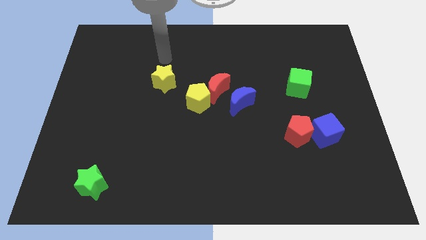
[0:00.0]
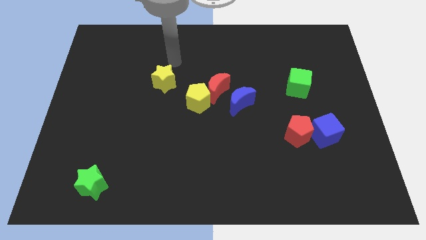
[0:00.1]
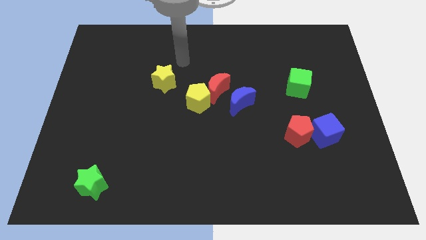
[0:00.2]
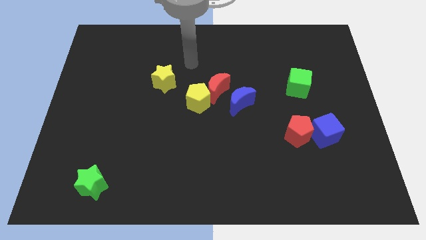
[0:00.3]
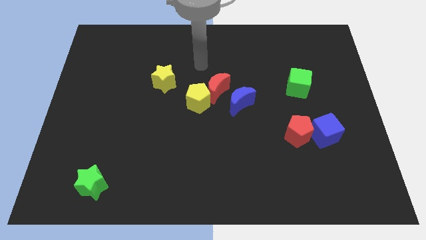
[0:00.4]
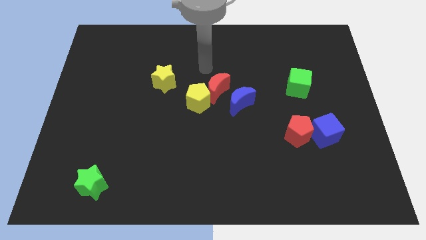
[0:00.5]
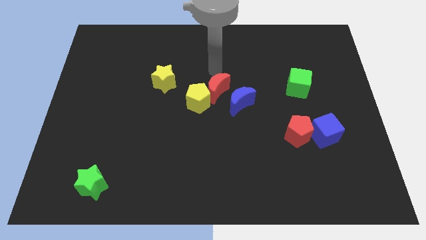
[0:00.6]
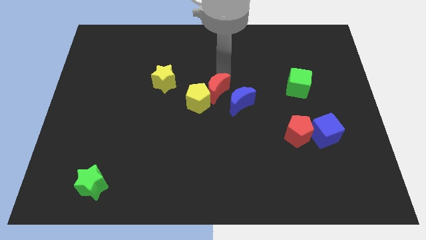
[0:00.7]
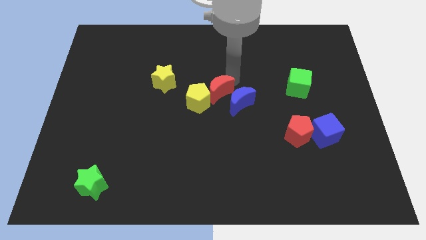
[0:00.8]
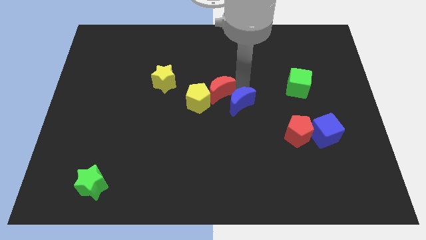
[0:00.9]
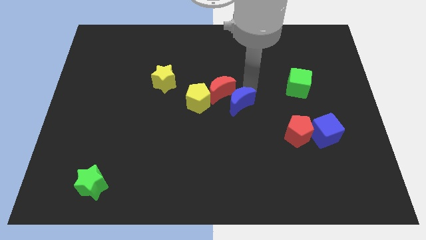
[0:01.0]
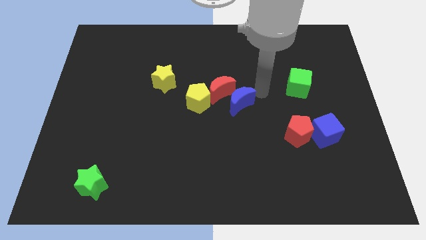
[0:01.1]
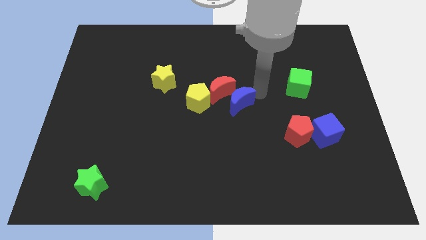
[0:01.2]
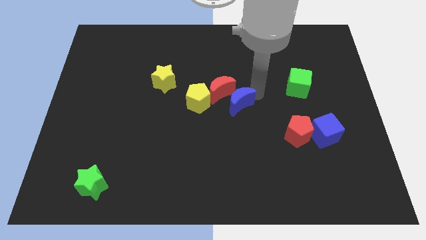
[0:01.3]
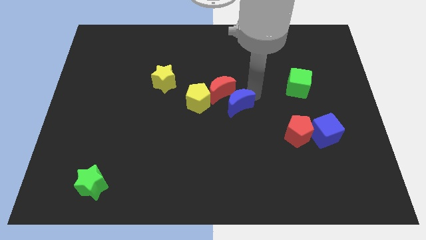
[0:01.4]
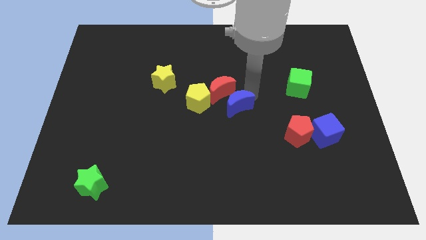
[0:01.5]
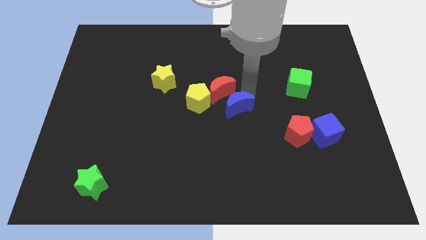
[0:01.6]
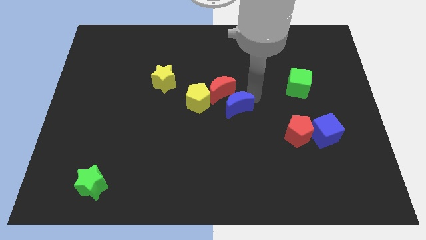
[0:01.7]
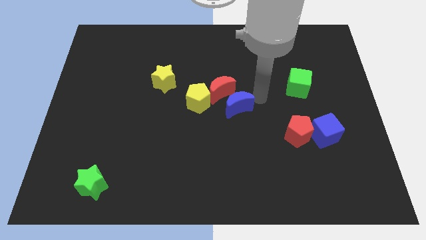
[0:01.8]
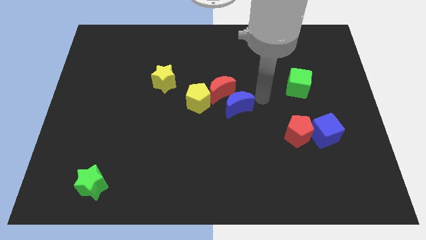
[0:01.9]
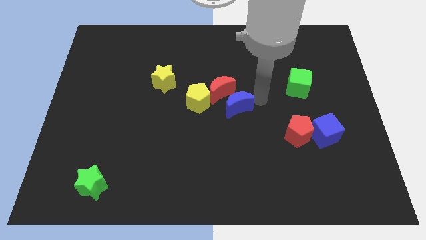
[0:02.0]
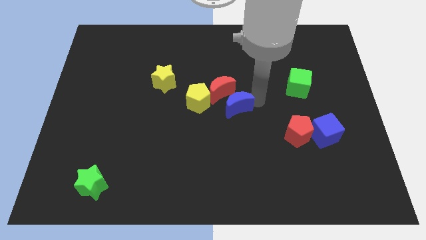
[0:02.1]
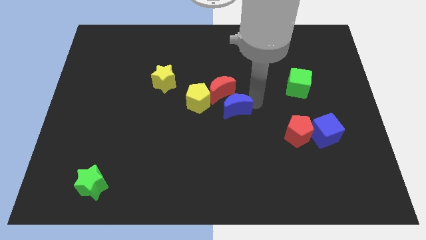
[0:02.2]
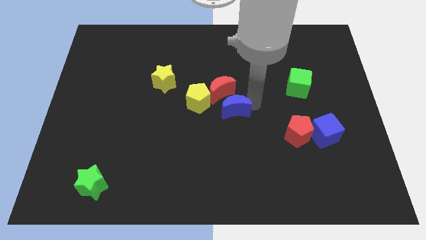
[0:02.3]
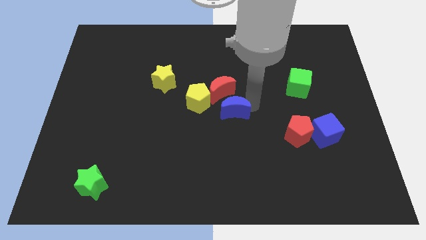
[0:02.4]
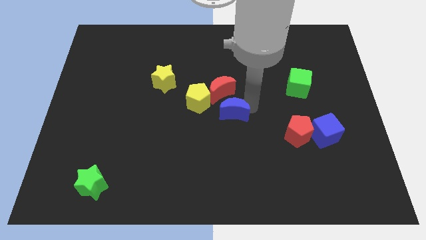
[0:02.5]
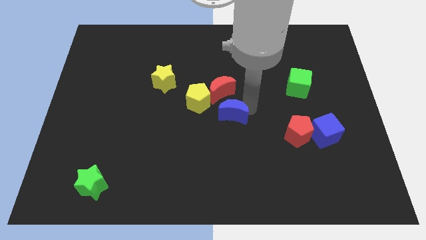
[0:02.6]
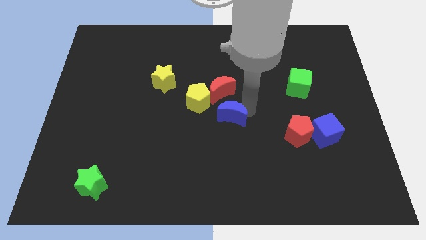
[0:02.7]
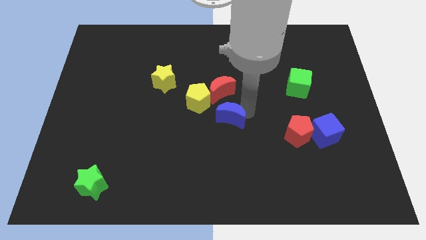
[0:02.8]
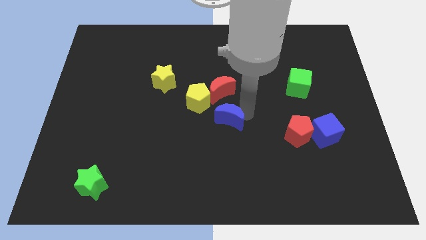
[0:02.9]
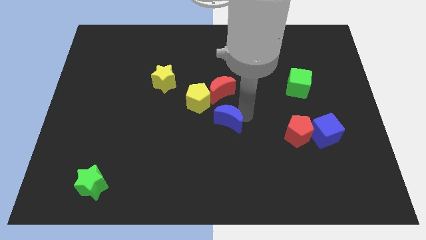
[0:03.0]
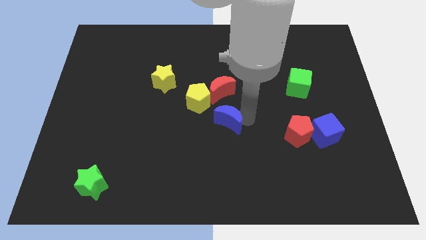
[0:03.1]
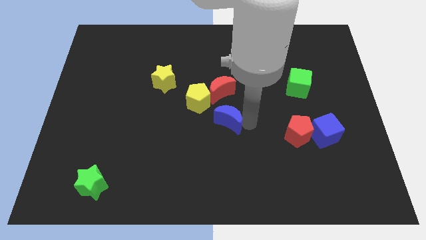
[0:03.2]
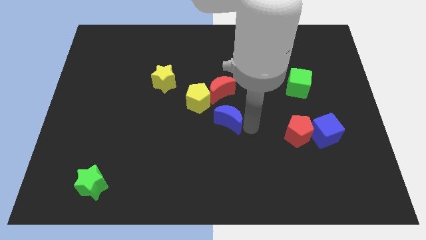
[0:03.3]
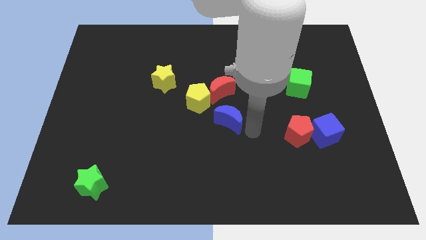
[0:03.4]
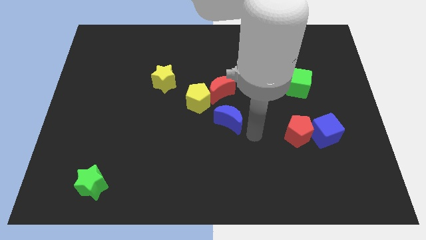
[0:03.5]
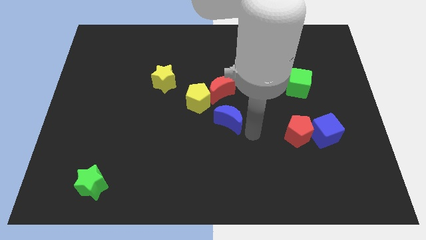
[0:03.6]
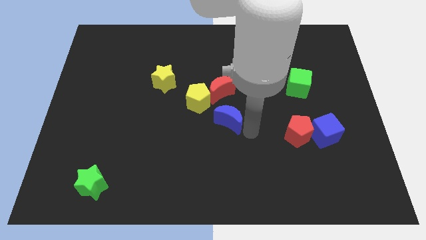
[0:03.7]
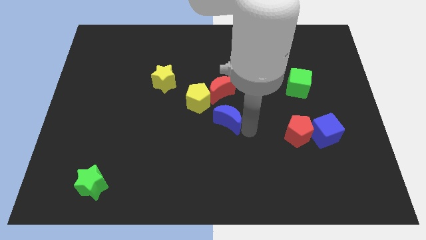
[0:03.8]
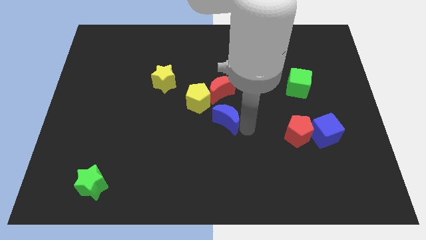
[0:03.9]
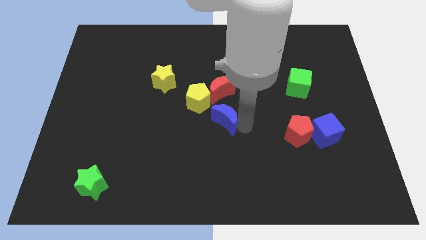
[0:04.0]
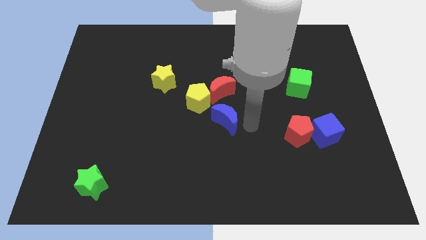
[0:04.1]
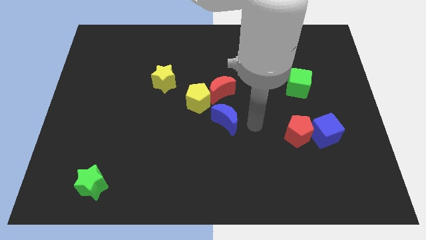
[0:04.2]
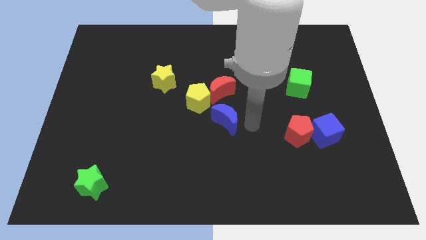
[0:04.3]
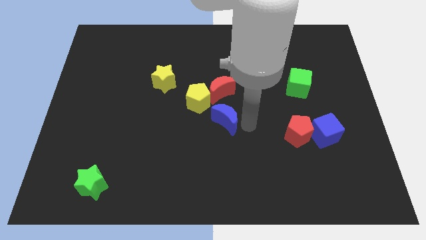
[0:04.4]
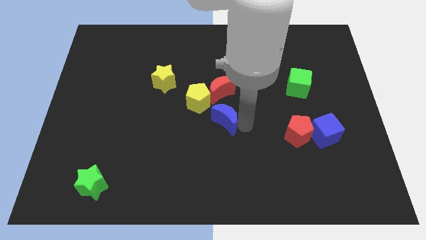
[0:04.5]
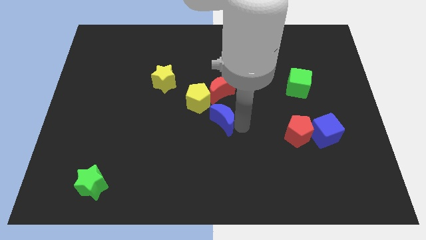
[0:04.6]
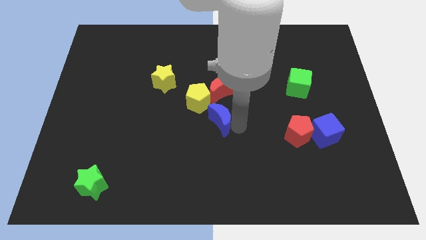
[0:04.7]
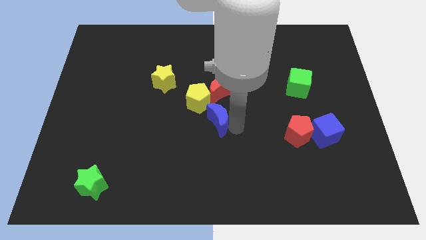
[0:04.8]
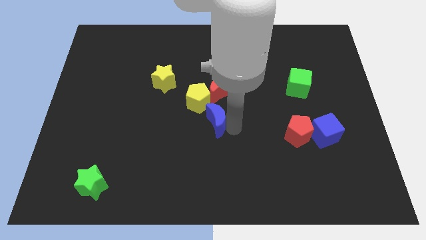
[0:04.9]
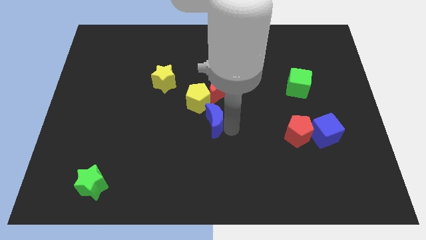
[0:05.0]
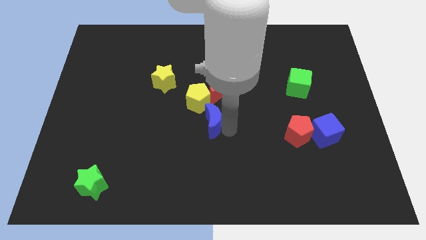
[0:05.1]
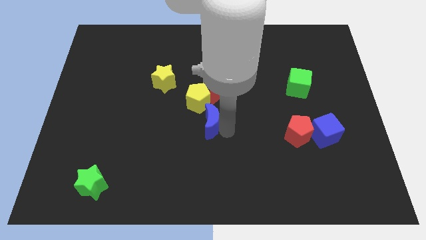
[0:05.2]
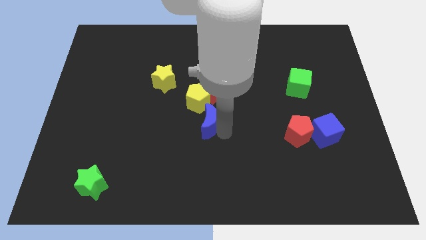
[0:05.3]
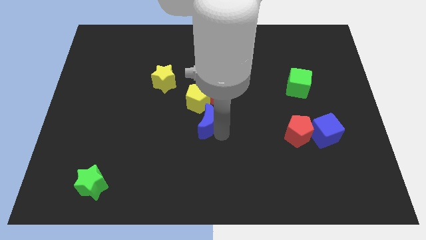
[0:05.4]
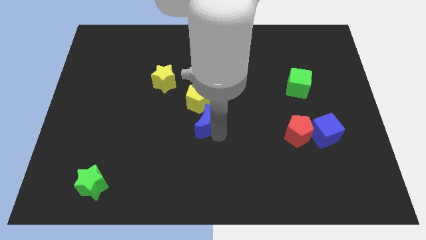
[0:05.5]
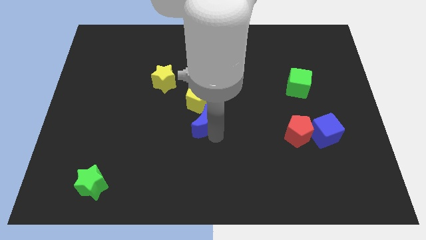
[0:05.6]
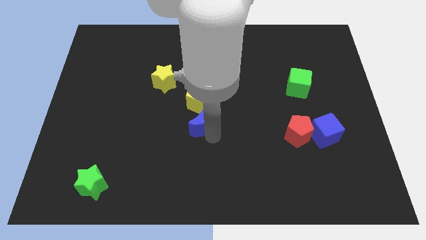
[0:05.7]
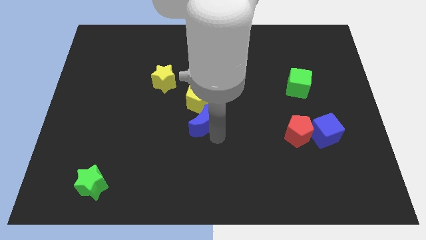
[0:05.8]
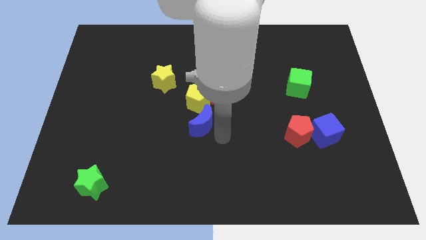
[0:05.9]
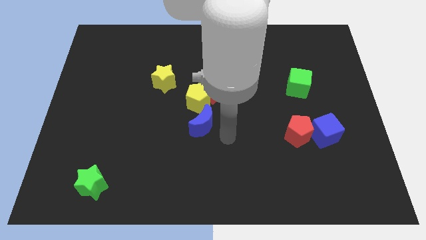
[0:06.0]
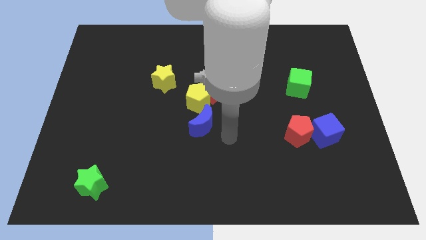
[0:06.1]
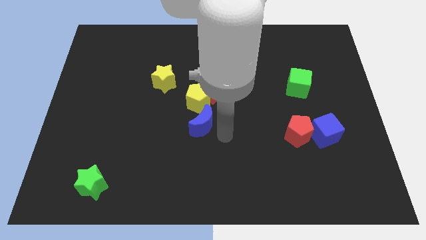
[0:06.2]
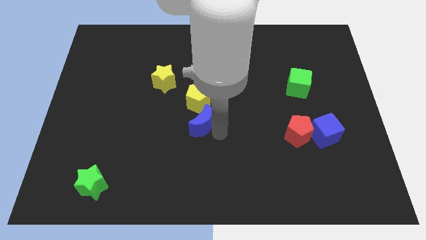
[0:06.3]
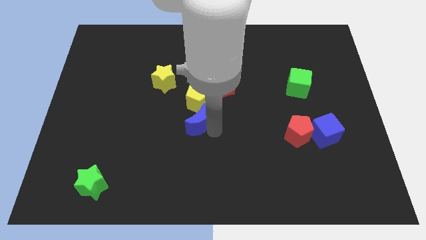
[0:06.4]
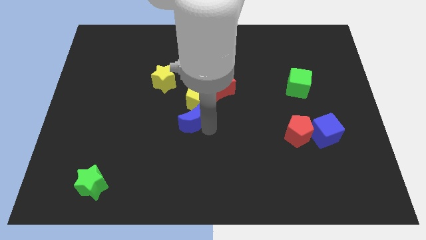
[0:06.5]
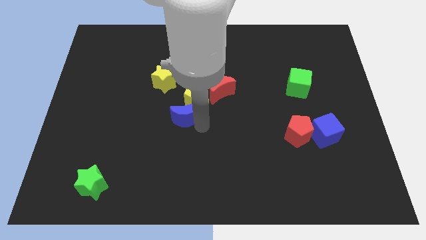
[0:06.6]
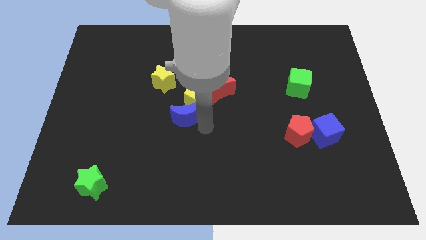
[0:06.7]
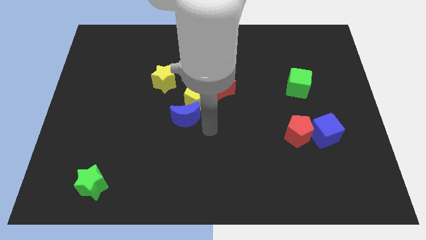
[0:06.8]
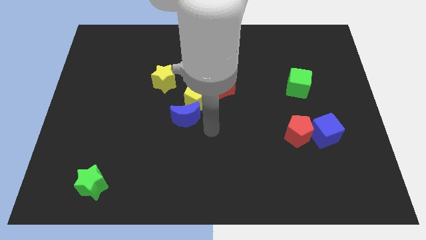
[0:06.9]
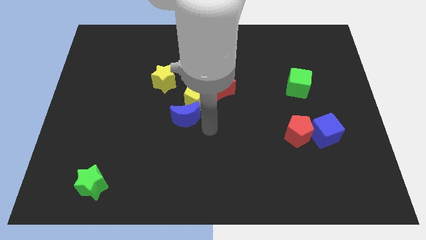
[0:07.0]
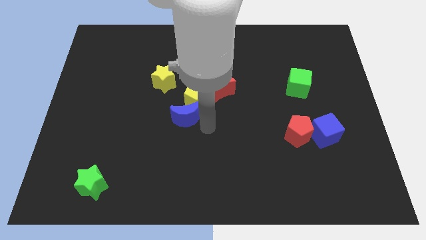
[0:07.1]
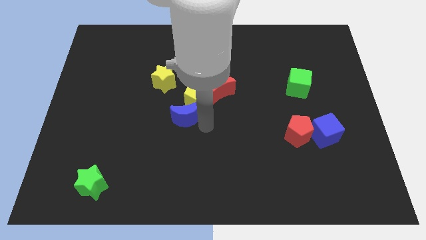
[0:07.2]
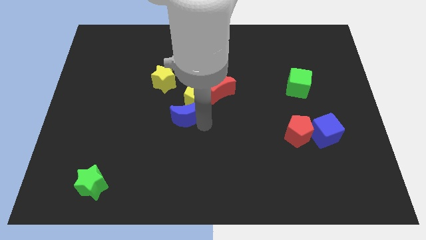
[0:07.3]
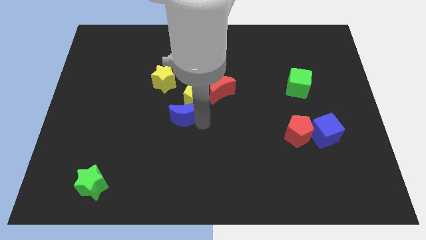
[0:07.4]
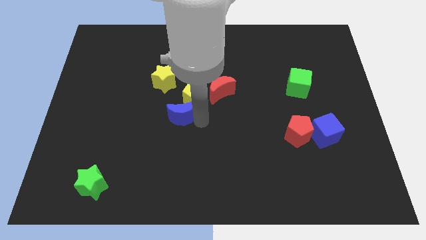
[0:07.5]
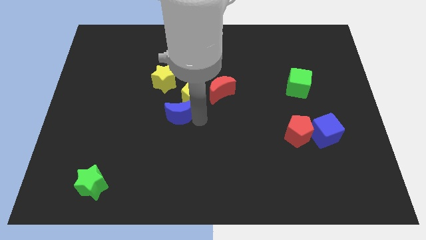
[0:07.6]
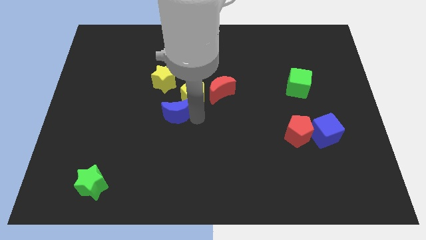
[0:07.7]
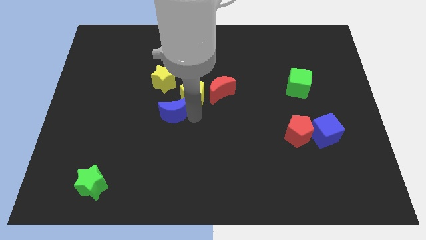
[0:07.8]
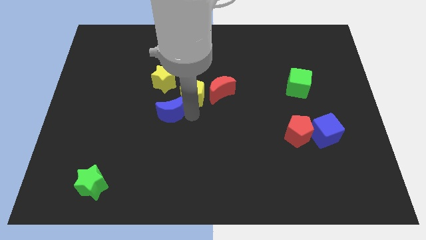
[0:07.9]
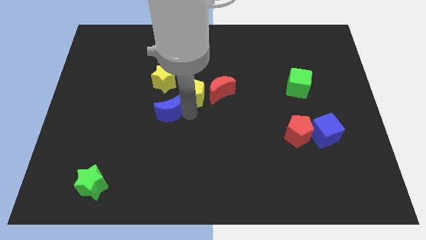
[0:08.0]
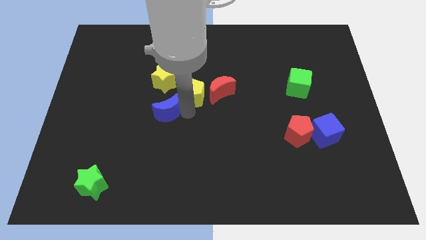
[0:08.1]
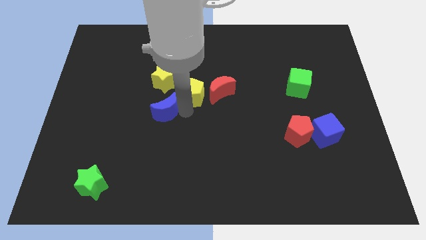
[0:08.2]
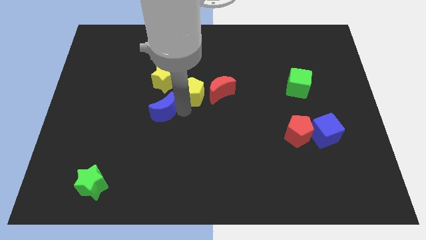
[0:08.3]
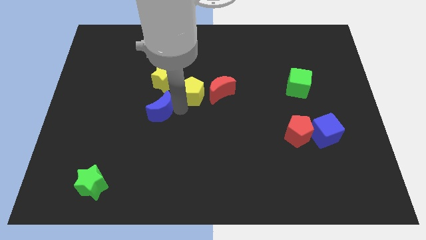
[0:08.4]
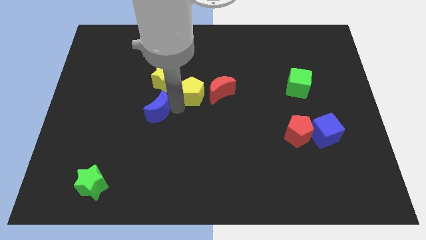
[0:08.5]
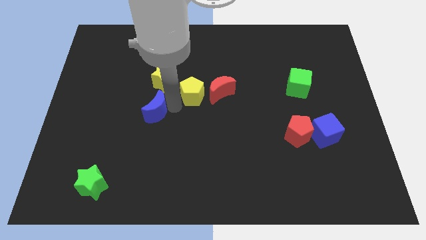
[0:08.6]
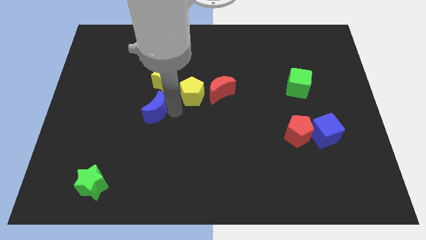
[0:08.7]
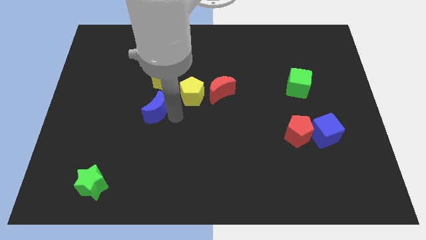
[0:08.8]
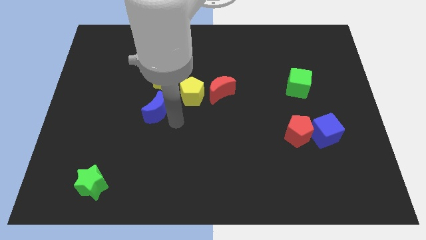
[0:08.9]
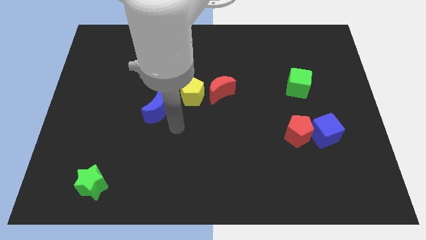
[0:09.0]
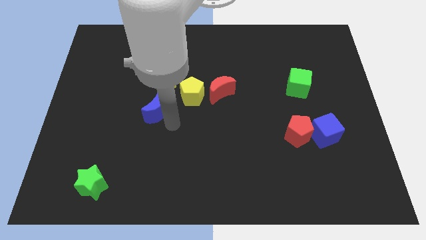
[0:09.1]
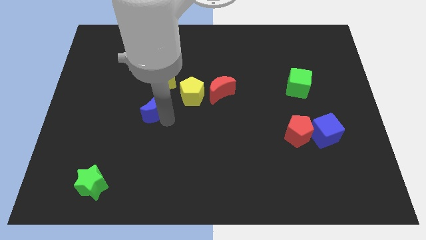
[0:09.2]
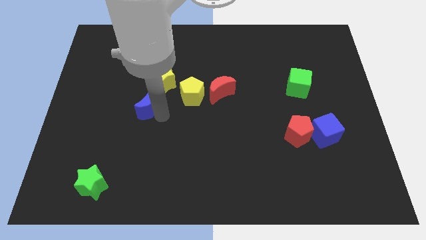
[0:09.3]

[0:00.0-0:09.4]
put the blue moon to the bottom left side of the yellow star
